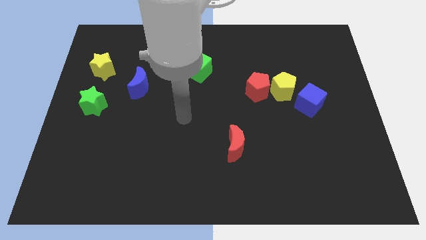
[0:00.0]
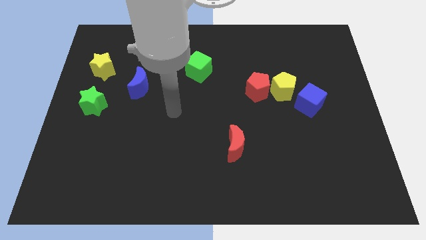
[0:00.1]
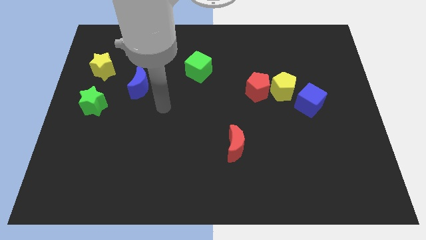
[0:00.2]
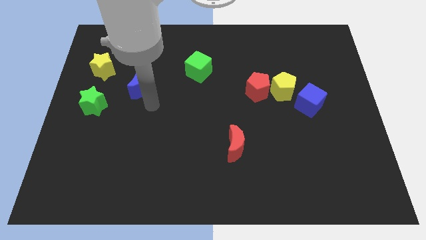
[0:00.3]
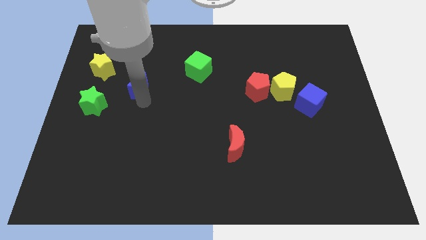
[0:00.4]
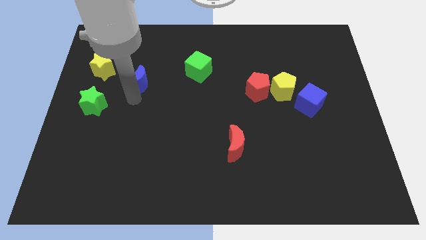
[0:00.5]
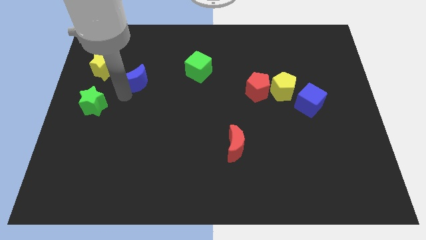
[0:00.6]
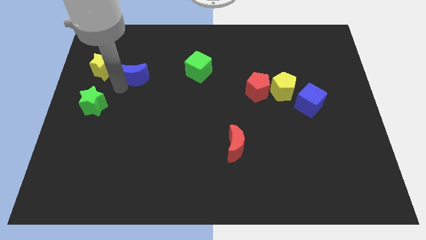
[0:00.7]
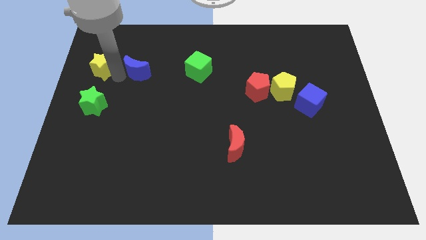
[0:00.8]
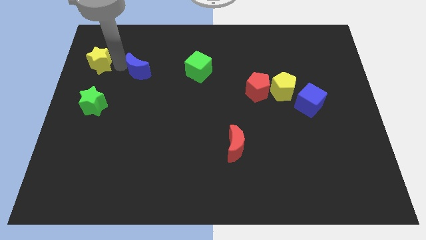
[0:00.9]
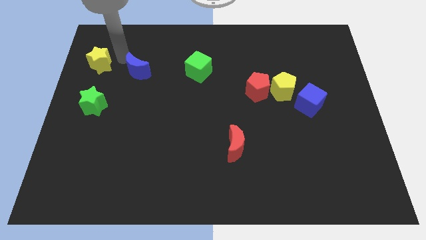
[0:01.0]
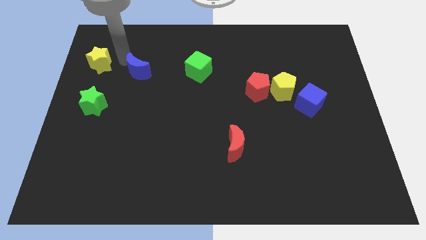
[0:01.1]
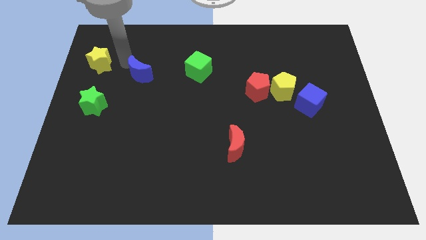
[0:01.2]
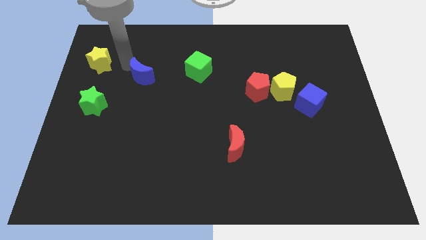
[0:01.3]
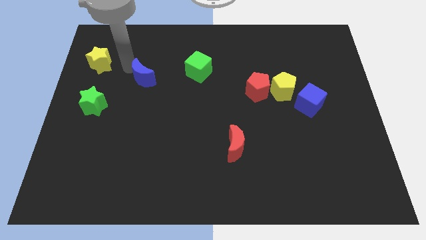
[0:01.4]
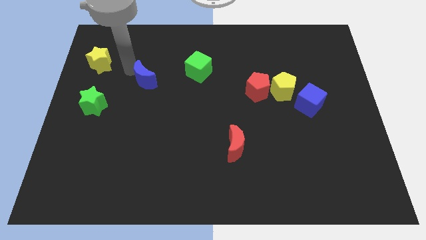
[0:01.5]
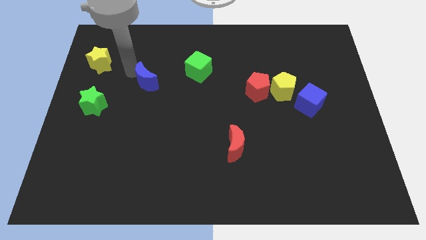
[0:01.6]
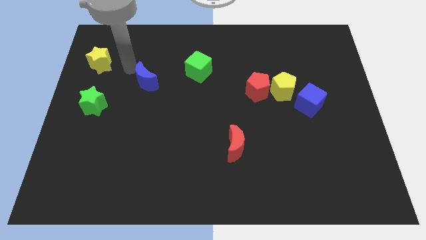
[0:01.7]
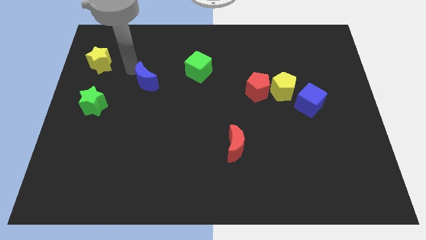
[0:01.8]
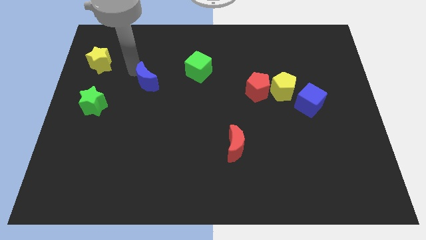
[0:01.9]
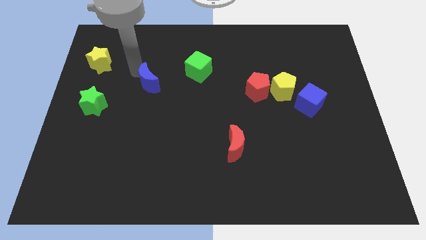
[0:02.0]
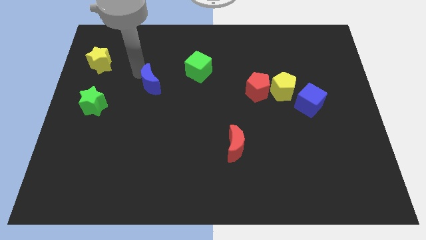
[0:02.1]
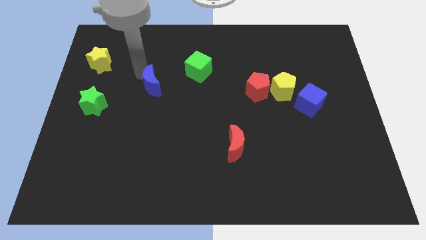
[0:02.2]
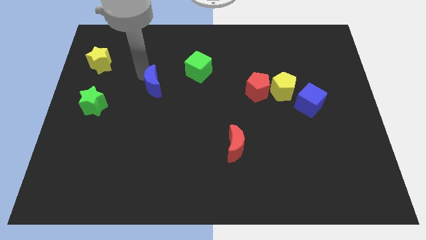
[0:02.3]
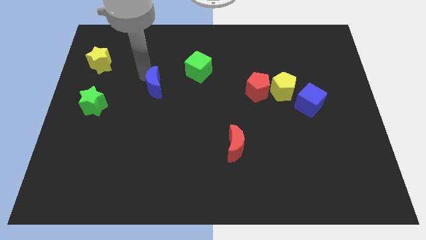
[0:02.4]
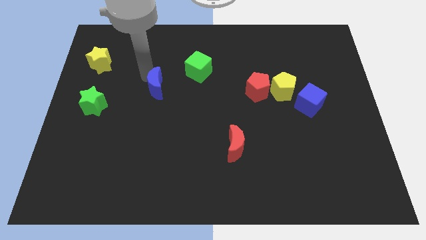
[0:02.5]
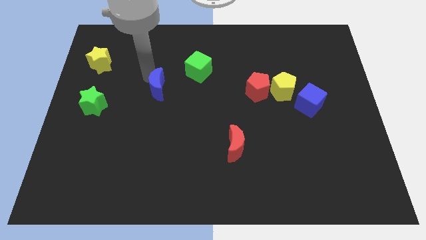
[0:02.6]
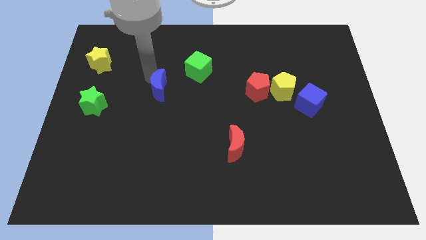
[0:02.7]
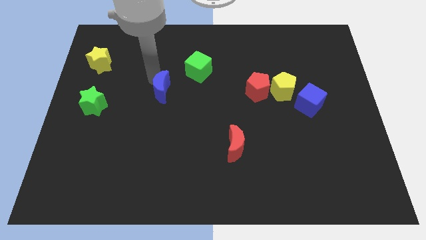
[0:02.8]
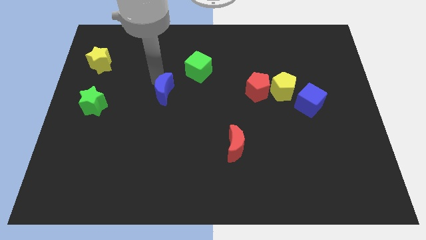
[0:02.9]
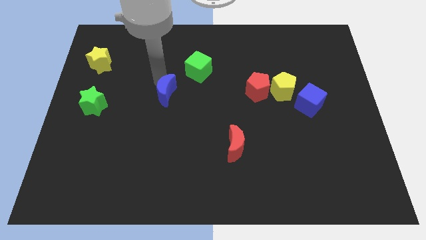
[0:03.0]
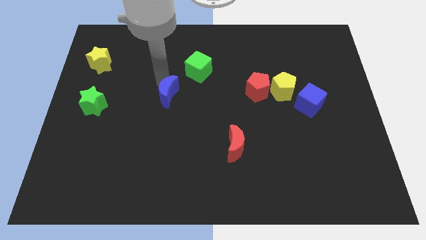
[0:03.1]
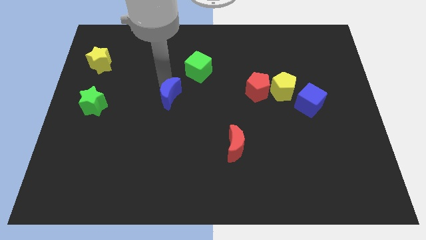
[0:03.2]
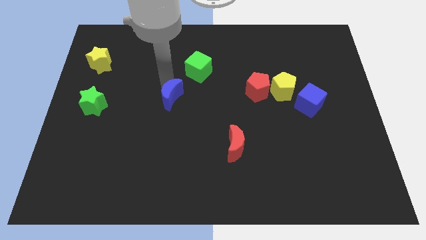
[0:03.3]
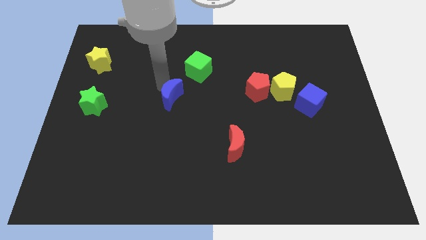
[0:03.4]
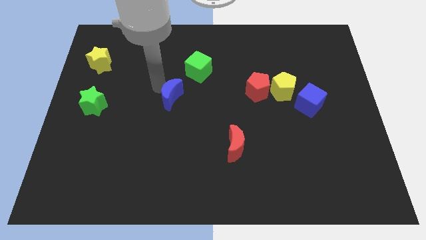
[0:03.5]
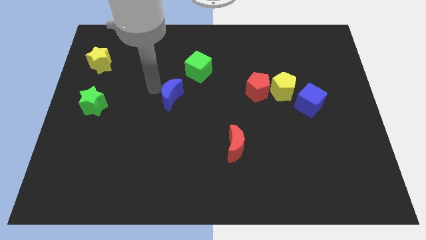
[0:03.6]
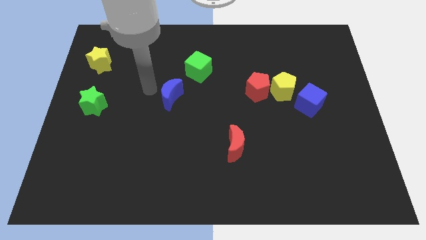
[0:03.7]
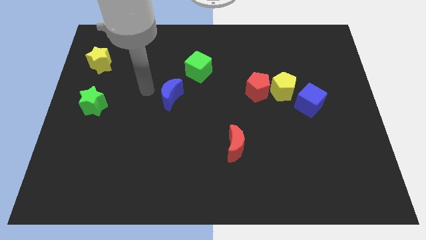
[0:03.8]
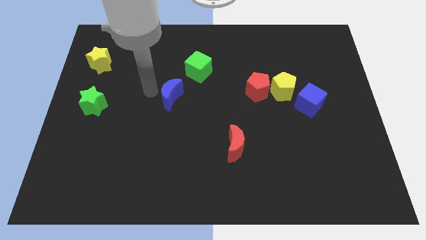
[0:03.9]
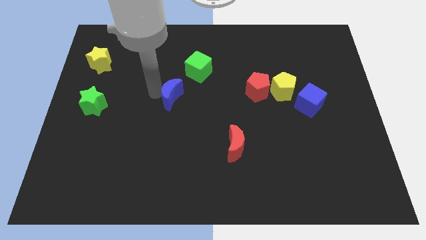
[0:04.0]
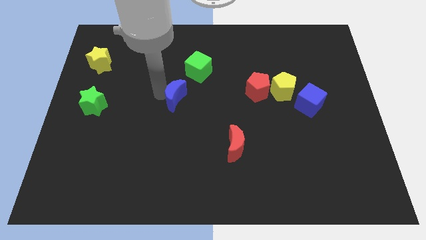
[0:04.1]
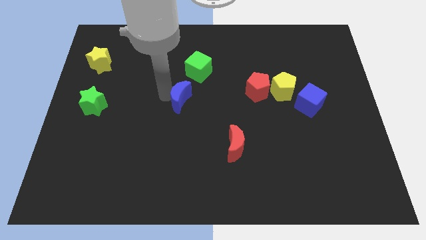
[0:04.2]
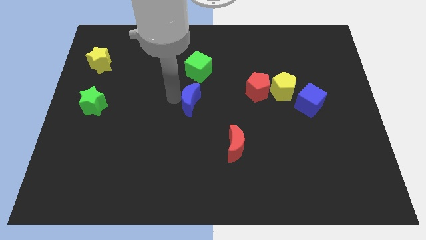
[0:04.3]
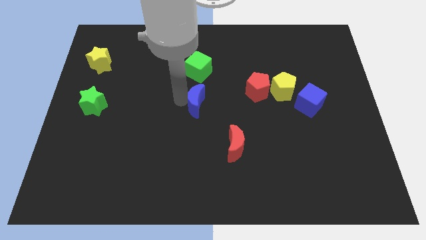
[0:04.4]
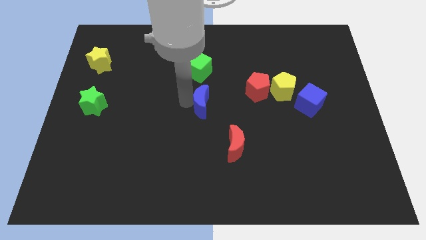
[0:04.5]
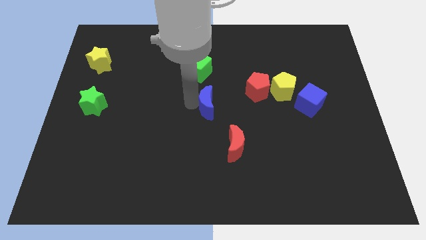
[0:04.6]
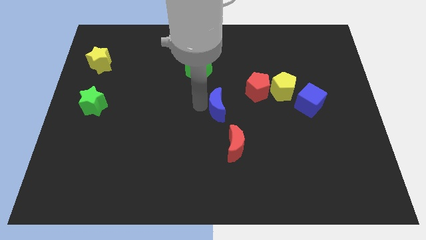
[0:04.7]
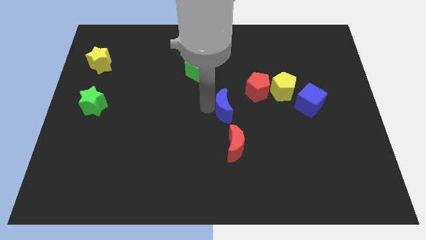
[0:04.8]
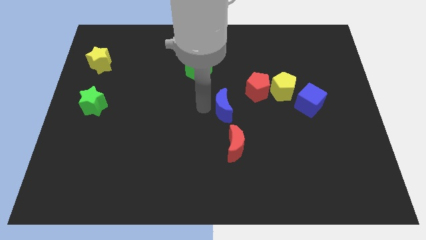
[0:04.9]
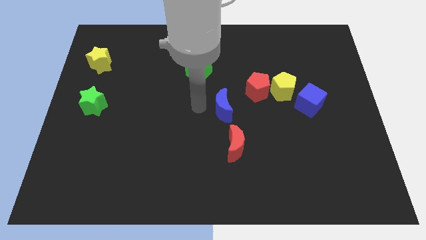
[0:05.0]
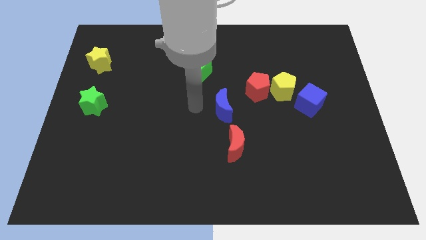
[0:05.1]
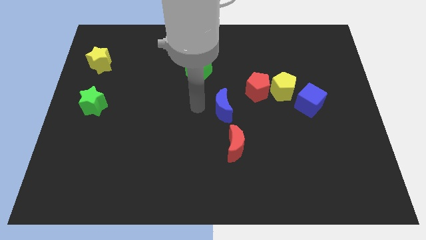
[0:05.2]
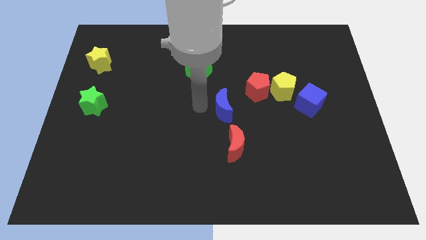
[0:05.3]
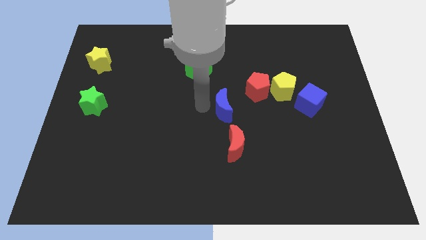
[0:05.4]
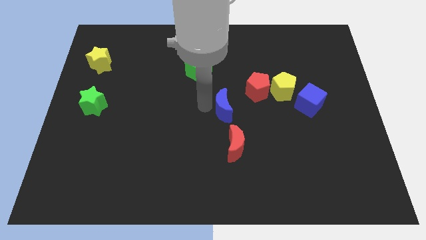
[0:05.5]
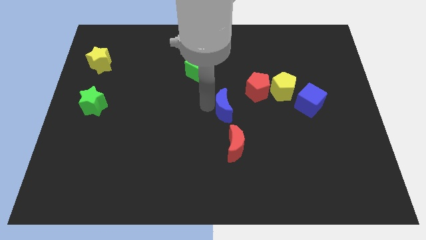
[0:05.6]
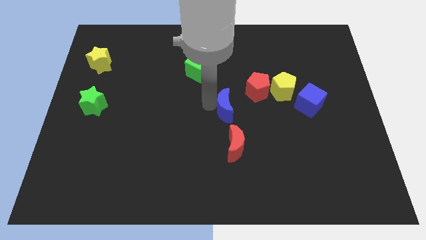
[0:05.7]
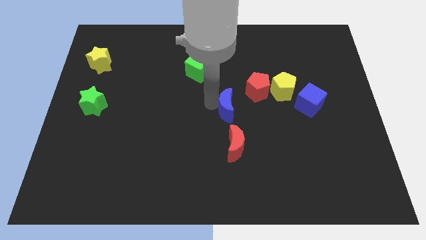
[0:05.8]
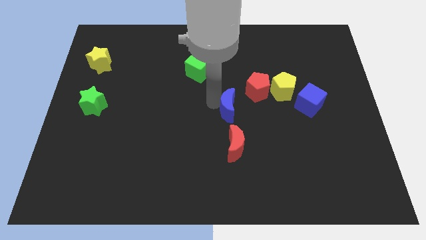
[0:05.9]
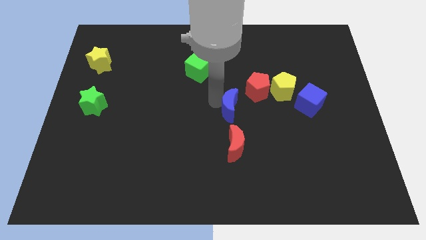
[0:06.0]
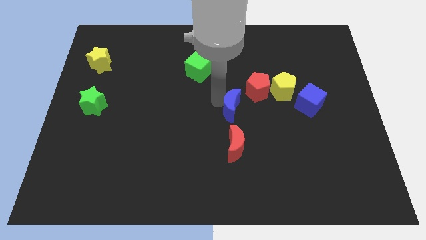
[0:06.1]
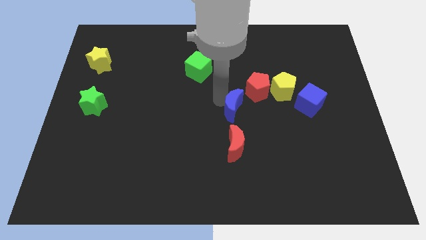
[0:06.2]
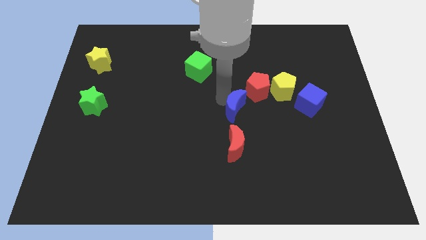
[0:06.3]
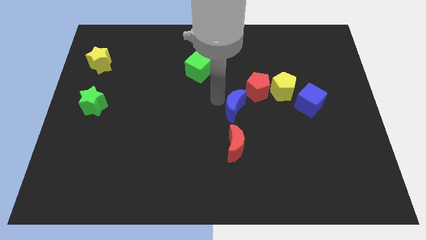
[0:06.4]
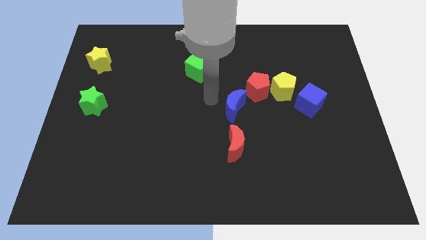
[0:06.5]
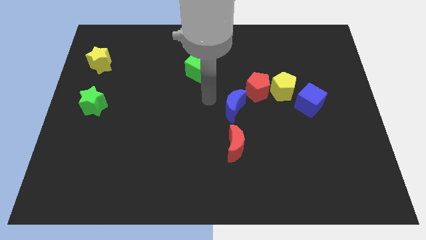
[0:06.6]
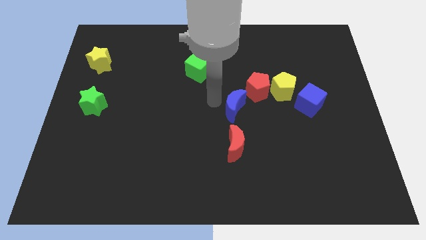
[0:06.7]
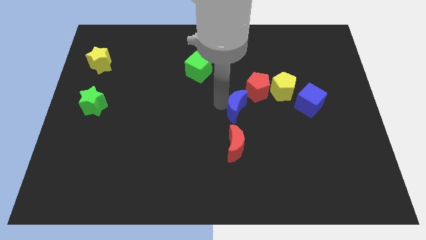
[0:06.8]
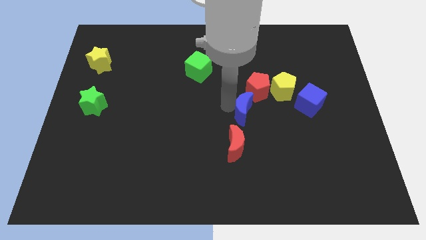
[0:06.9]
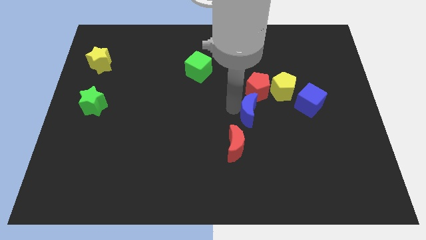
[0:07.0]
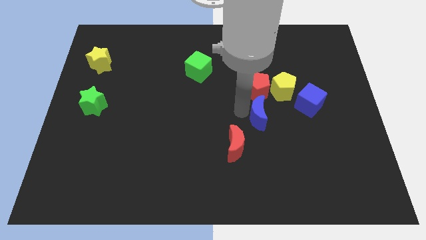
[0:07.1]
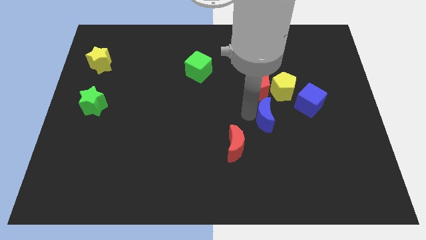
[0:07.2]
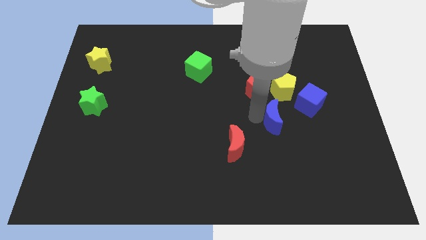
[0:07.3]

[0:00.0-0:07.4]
slide the blue moon to the bottom left side of the blue cube
